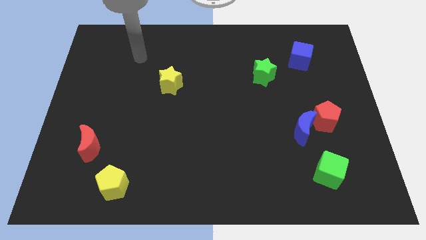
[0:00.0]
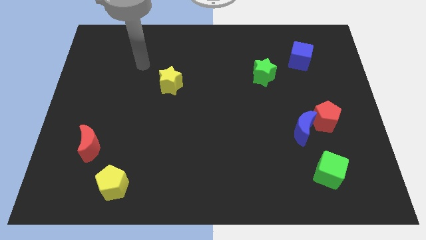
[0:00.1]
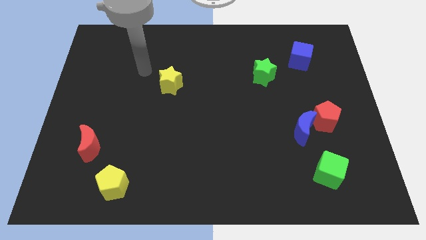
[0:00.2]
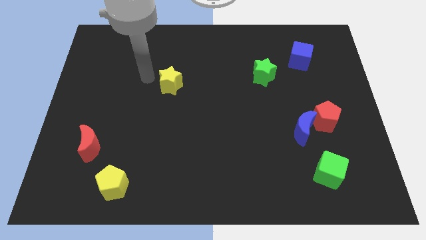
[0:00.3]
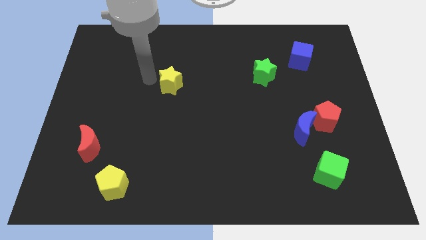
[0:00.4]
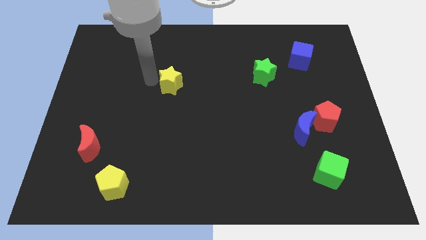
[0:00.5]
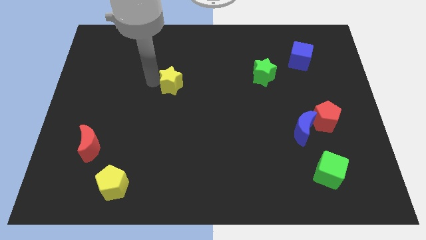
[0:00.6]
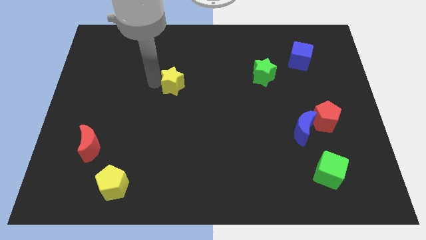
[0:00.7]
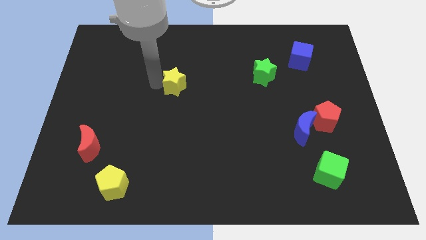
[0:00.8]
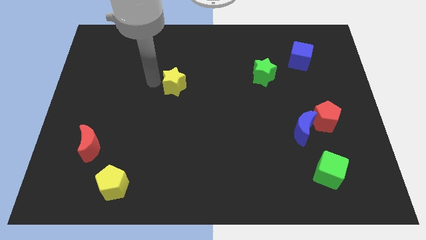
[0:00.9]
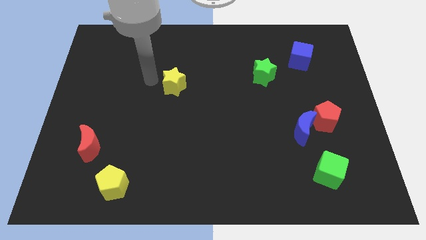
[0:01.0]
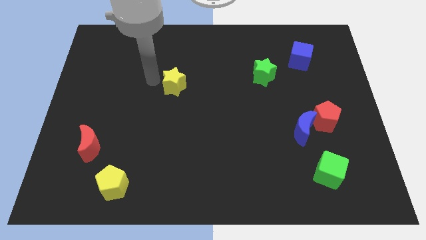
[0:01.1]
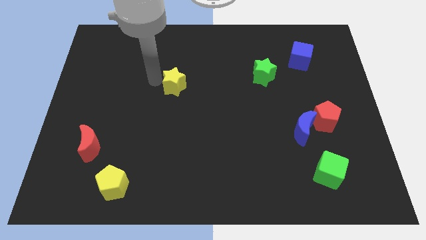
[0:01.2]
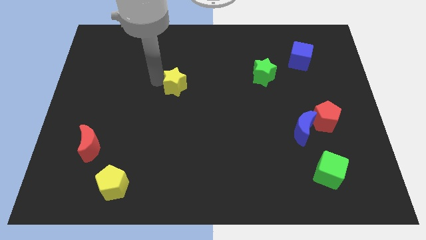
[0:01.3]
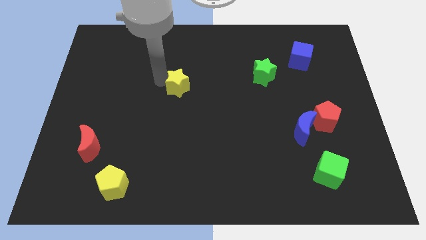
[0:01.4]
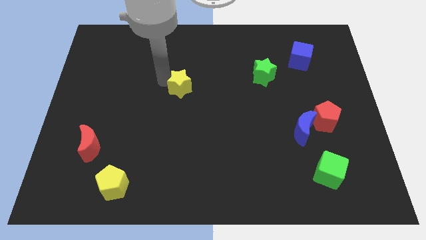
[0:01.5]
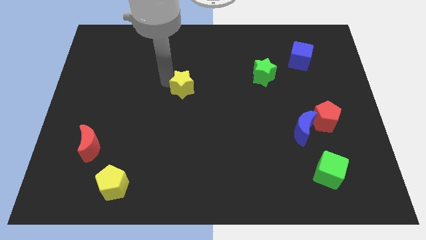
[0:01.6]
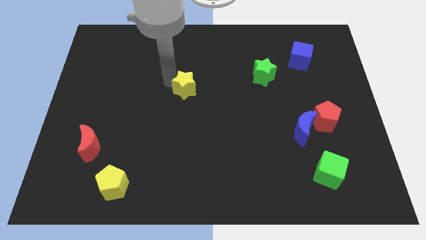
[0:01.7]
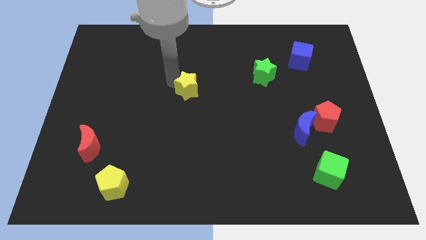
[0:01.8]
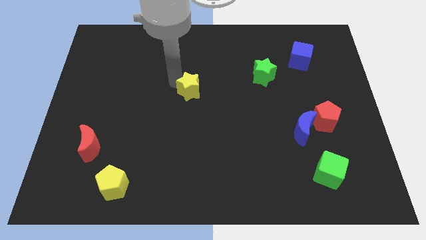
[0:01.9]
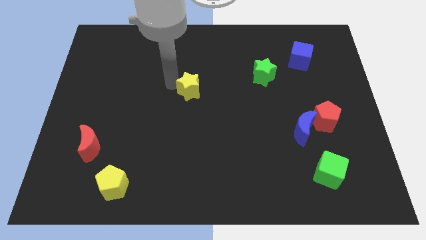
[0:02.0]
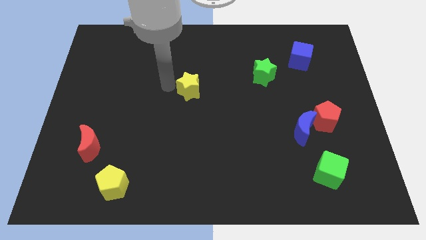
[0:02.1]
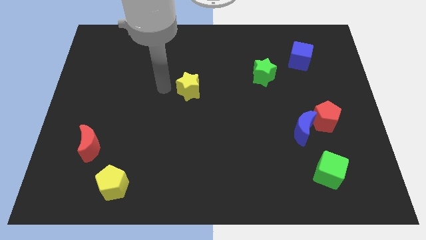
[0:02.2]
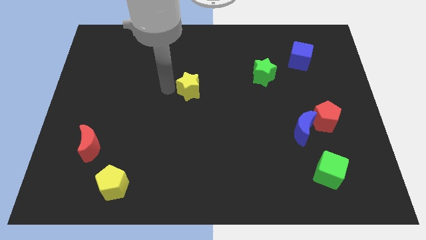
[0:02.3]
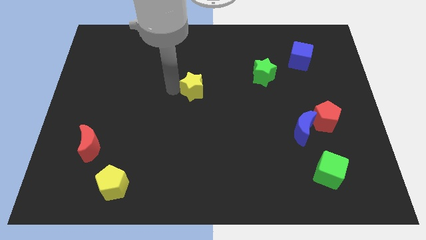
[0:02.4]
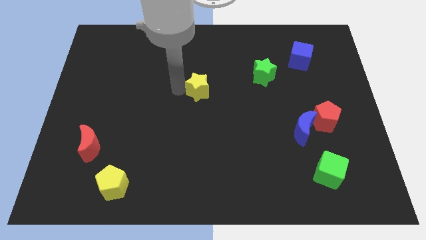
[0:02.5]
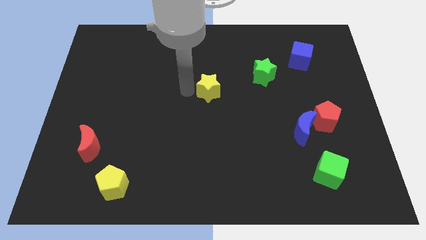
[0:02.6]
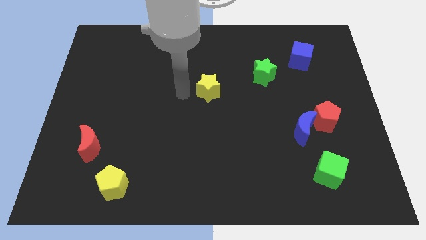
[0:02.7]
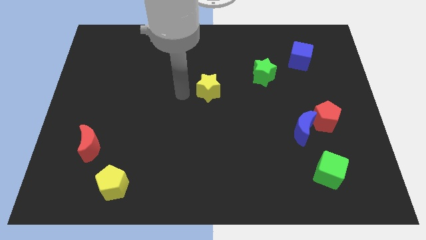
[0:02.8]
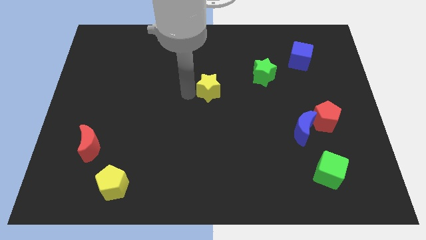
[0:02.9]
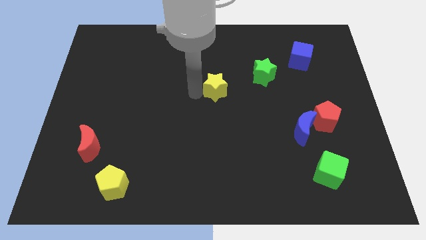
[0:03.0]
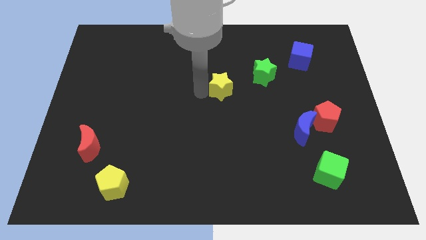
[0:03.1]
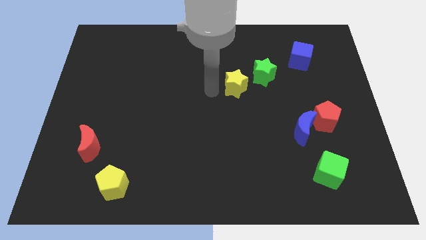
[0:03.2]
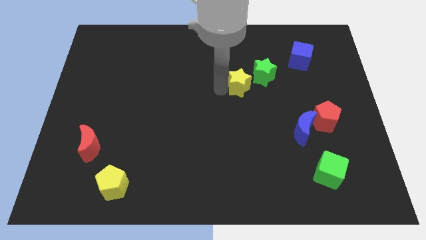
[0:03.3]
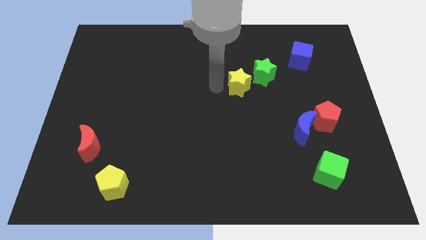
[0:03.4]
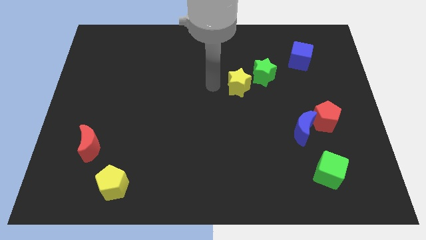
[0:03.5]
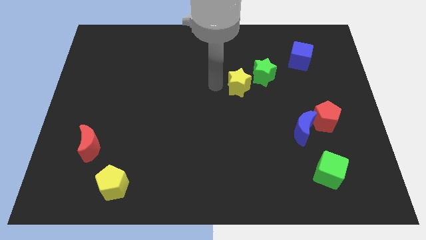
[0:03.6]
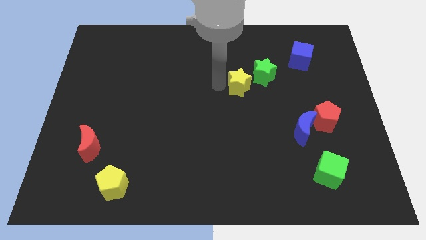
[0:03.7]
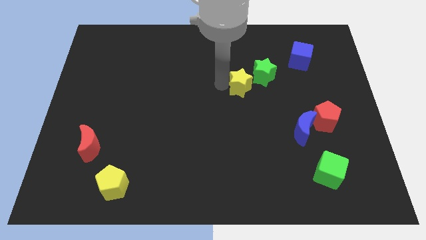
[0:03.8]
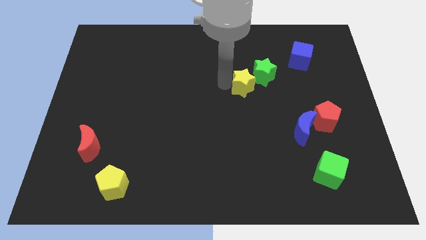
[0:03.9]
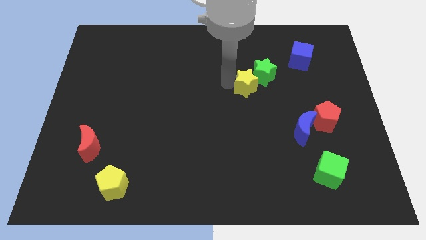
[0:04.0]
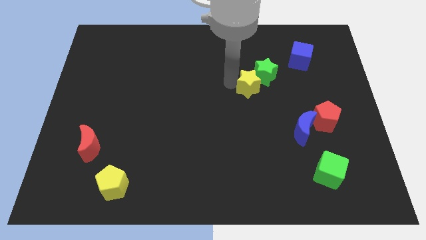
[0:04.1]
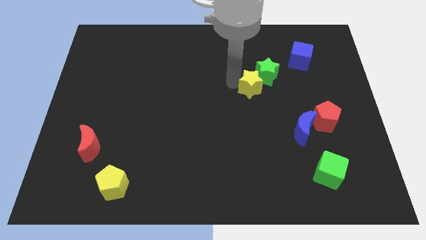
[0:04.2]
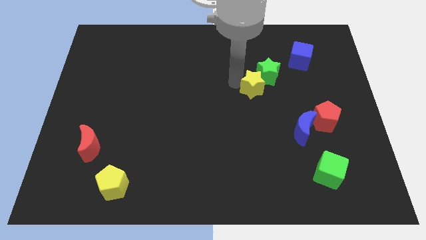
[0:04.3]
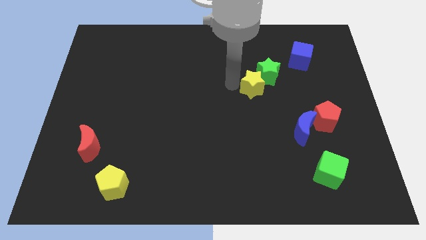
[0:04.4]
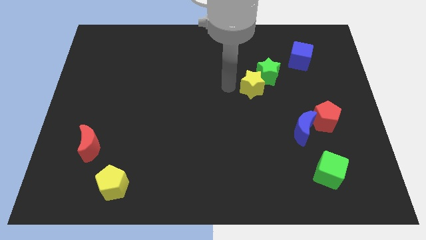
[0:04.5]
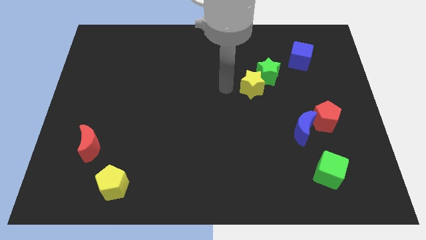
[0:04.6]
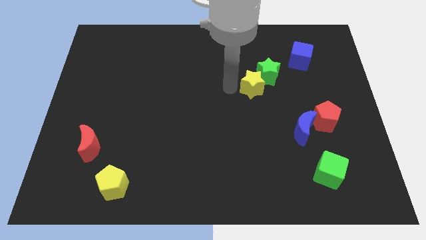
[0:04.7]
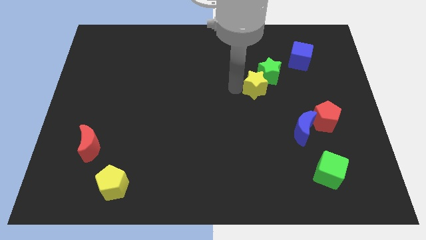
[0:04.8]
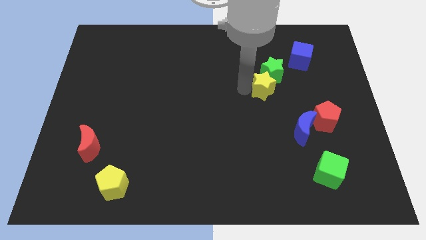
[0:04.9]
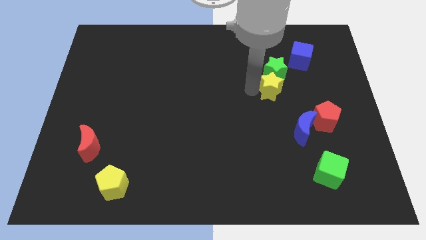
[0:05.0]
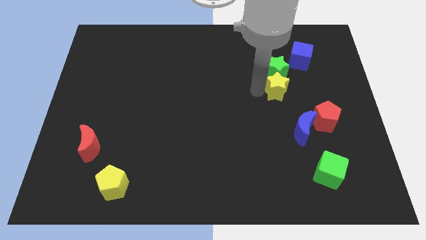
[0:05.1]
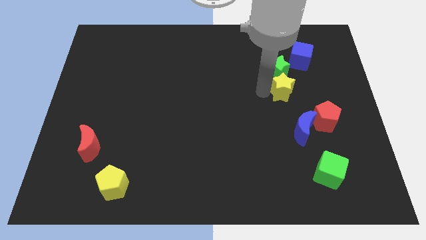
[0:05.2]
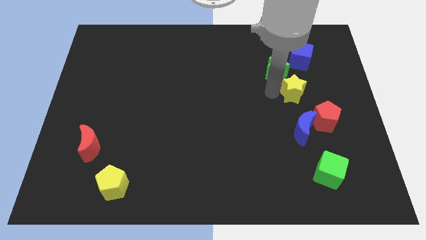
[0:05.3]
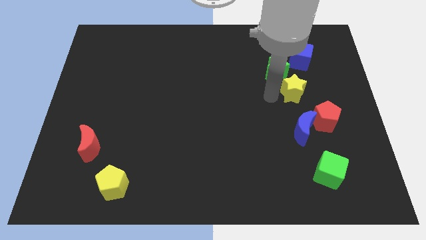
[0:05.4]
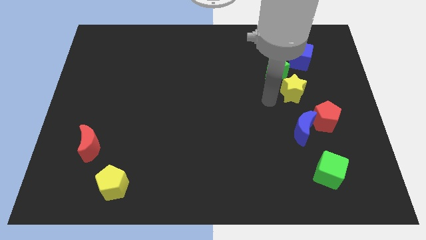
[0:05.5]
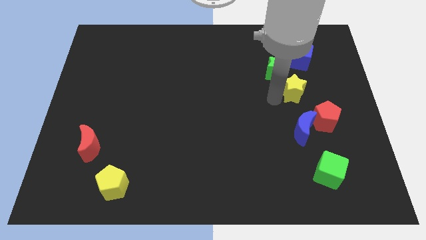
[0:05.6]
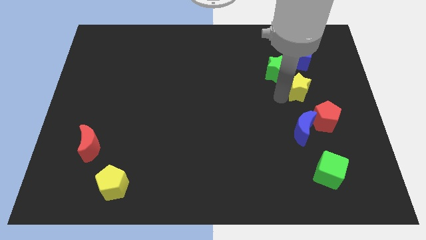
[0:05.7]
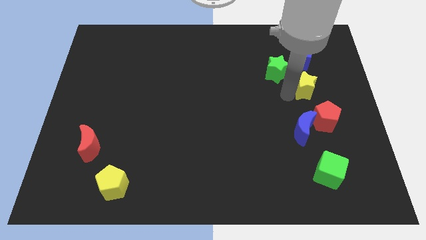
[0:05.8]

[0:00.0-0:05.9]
move the yellow star above the red pentagon

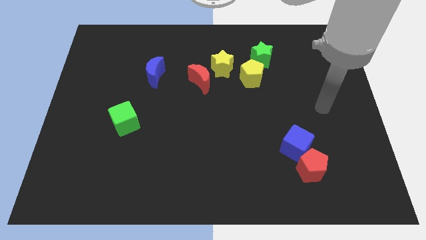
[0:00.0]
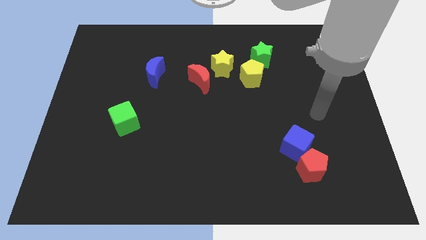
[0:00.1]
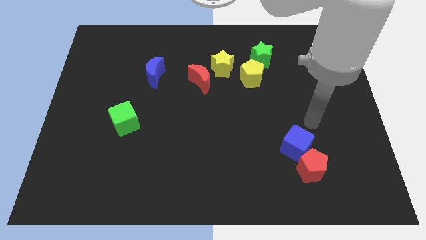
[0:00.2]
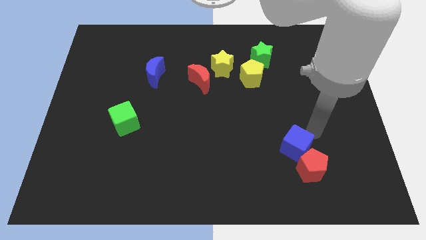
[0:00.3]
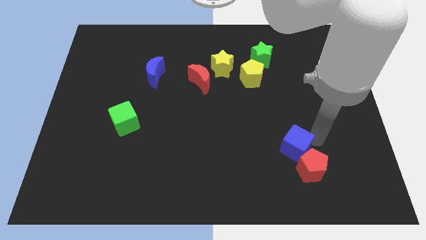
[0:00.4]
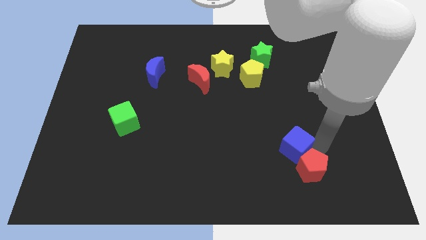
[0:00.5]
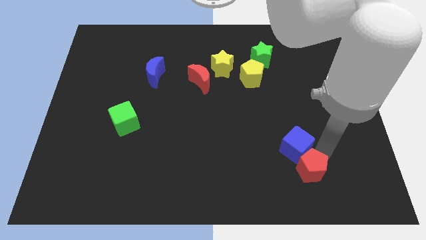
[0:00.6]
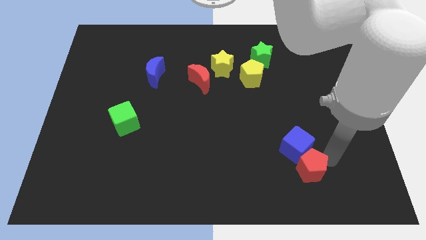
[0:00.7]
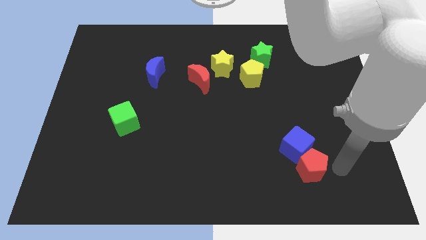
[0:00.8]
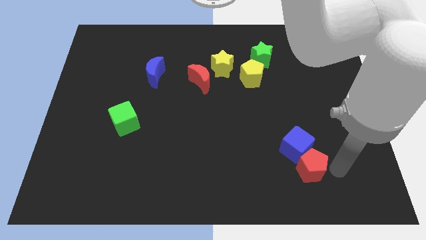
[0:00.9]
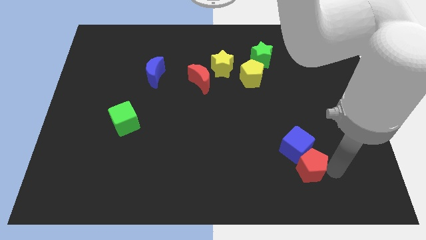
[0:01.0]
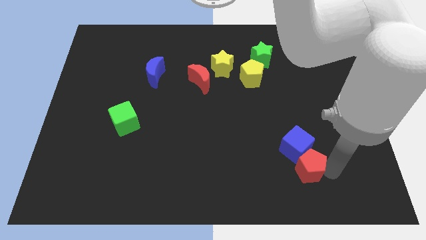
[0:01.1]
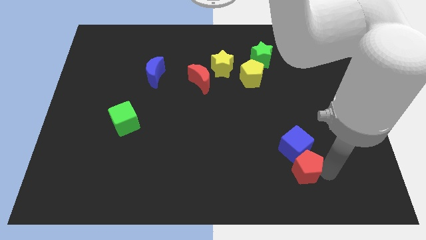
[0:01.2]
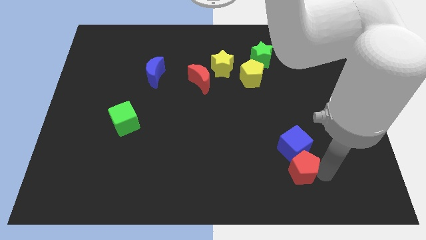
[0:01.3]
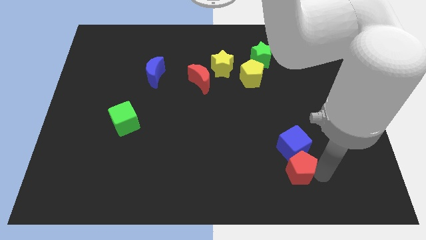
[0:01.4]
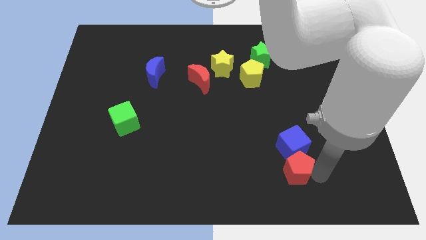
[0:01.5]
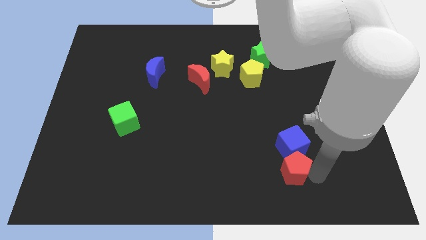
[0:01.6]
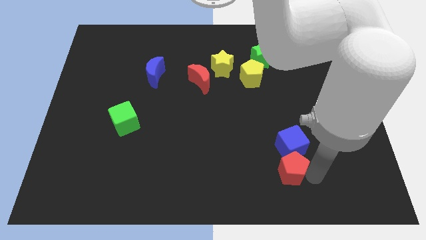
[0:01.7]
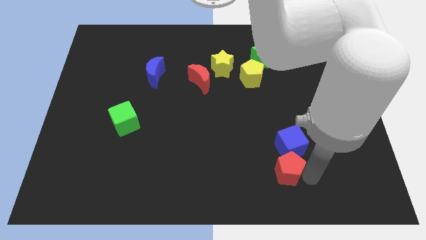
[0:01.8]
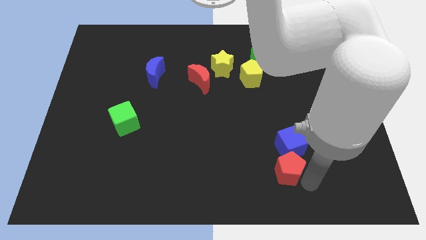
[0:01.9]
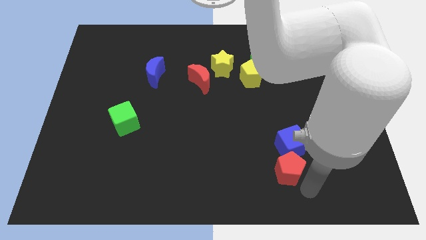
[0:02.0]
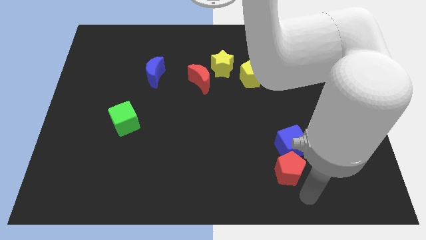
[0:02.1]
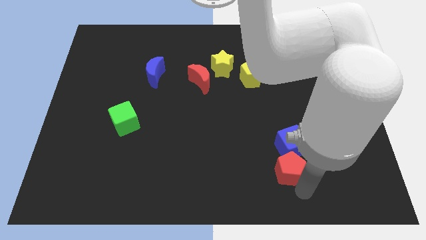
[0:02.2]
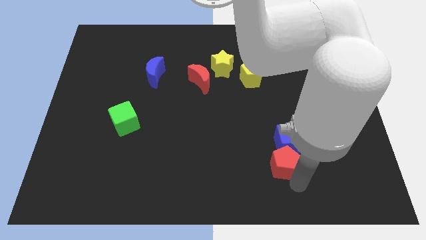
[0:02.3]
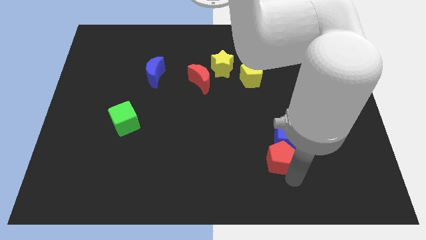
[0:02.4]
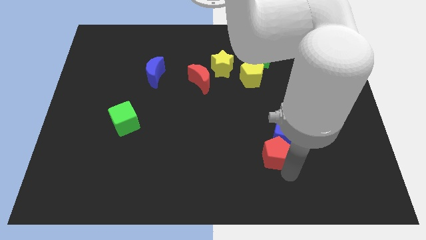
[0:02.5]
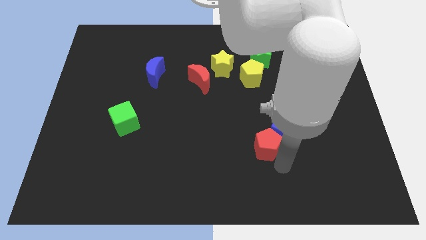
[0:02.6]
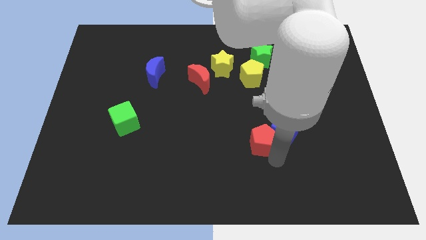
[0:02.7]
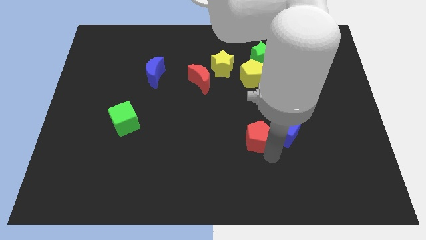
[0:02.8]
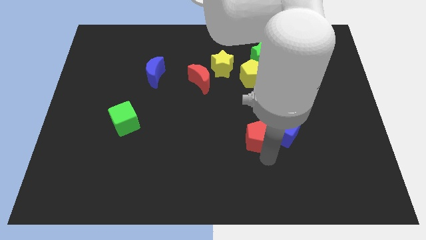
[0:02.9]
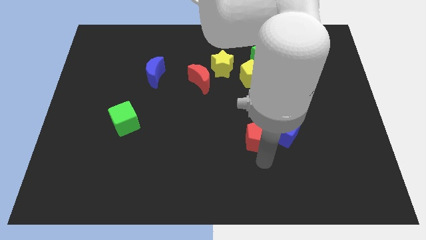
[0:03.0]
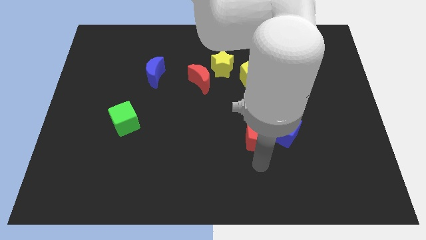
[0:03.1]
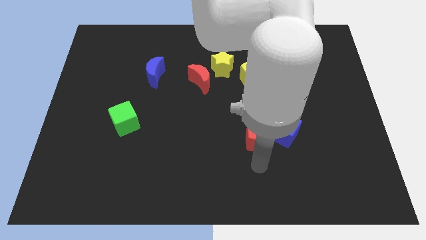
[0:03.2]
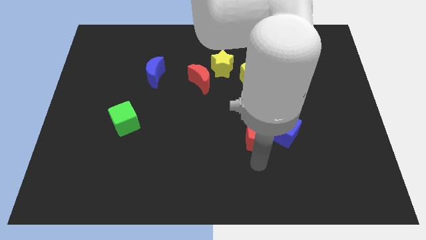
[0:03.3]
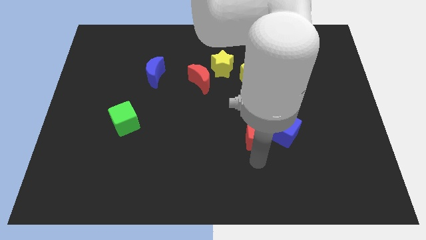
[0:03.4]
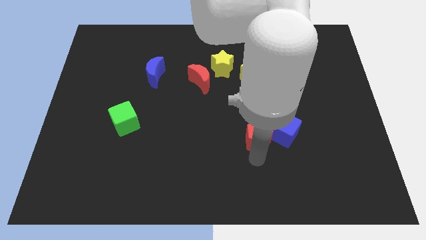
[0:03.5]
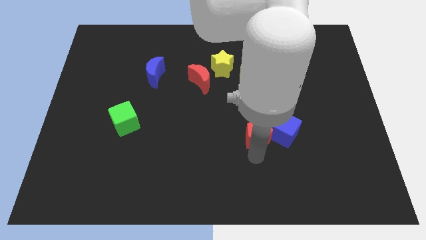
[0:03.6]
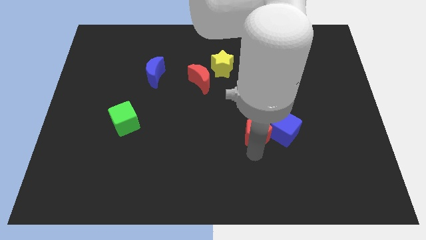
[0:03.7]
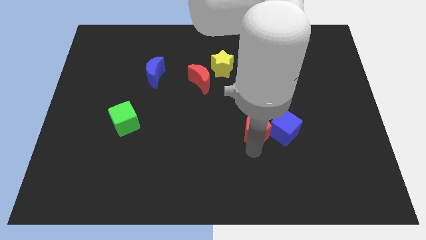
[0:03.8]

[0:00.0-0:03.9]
push the red pentagon to the bottom of the yellow pentagon
